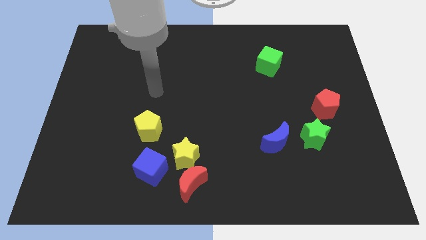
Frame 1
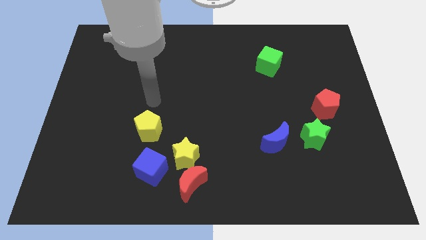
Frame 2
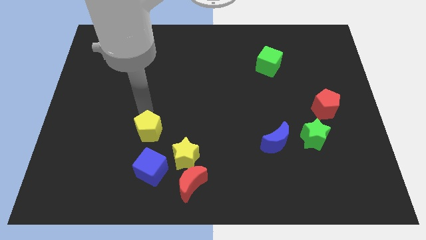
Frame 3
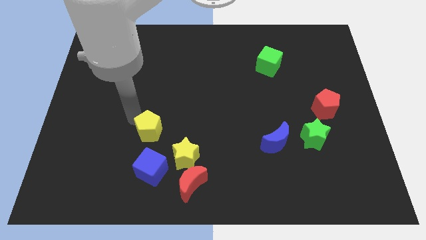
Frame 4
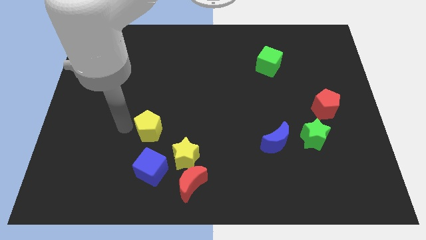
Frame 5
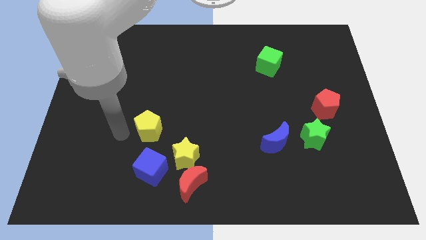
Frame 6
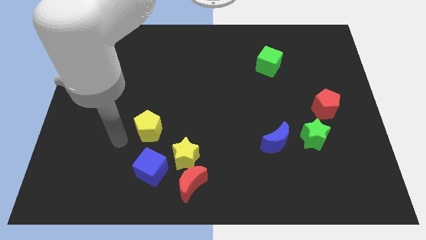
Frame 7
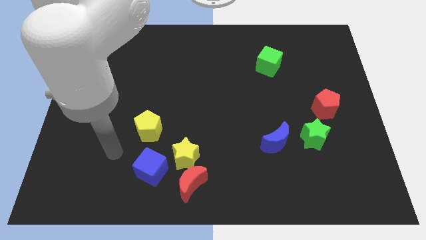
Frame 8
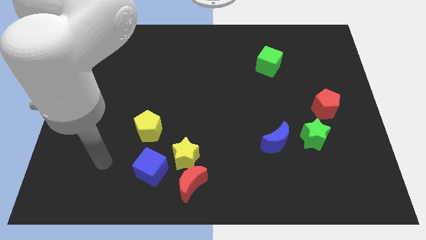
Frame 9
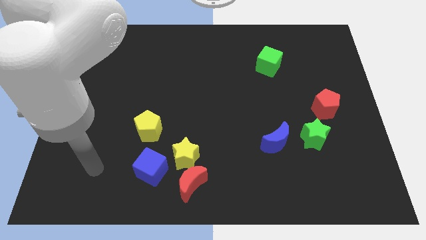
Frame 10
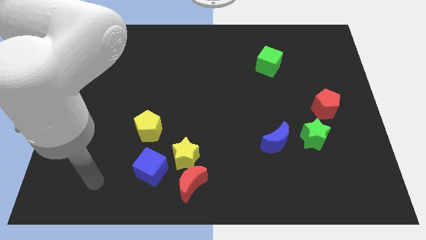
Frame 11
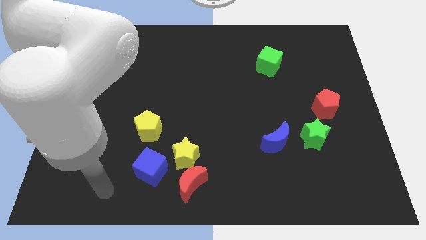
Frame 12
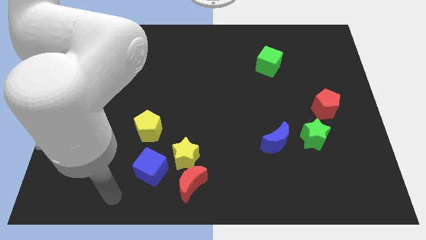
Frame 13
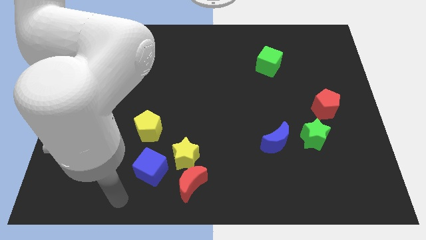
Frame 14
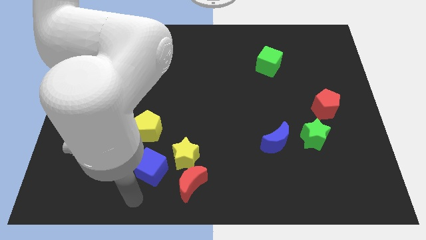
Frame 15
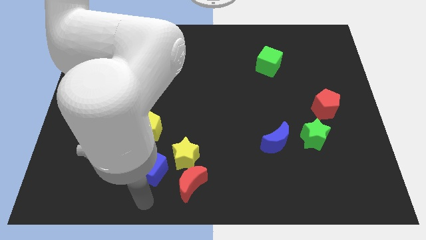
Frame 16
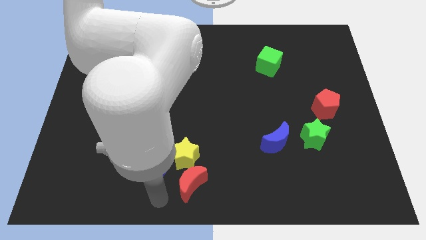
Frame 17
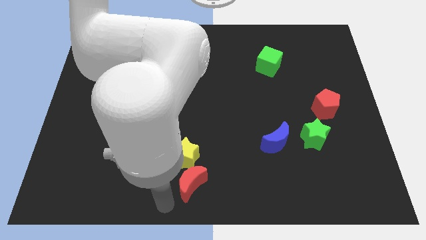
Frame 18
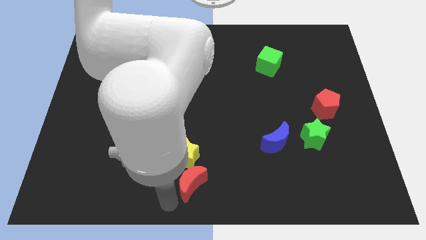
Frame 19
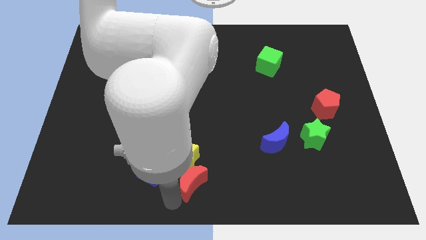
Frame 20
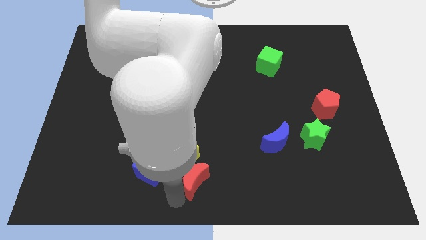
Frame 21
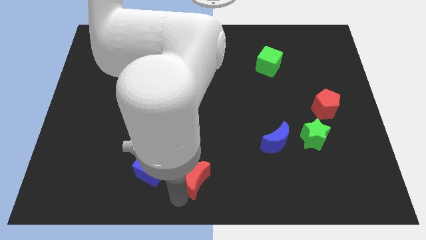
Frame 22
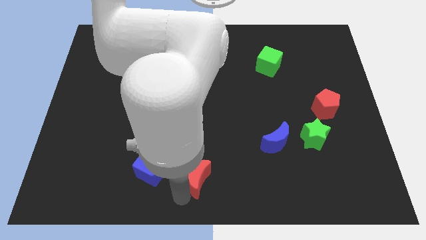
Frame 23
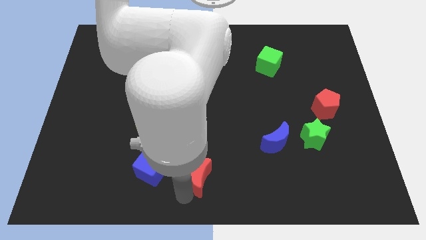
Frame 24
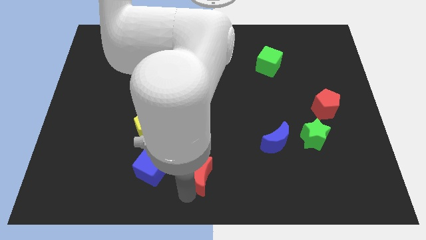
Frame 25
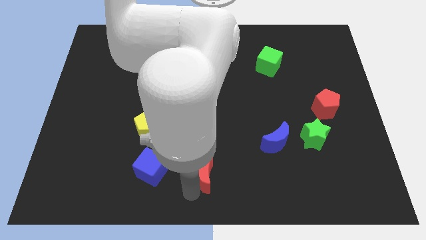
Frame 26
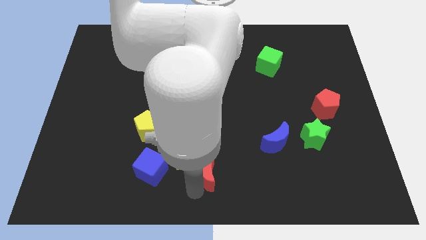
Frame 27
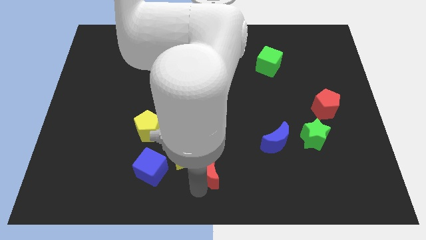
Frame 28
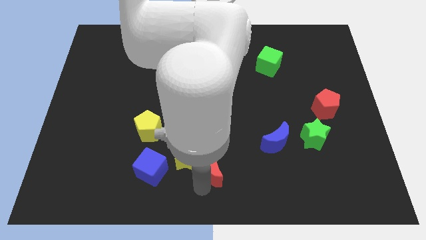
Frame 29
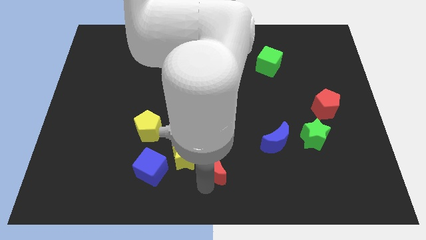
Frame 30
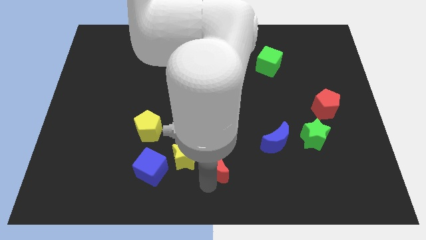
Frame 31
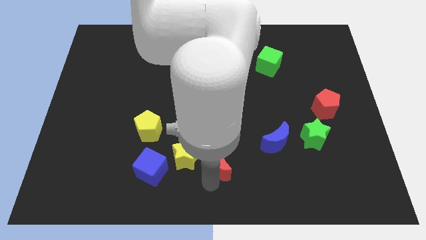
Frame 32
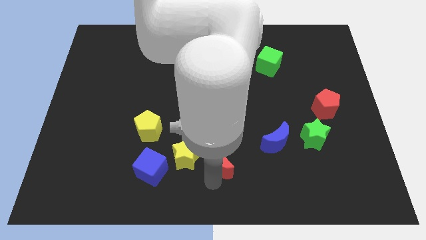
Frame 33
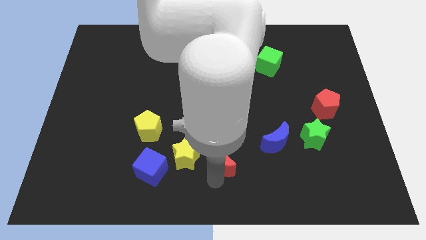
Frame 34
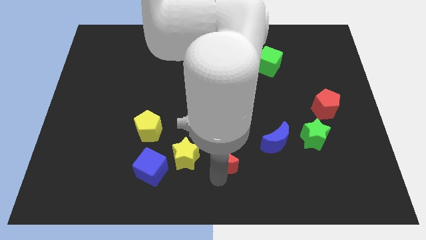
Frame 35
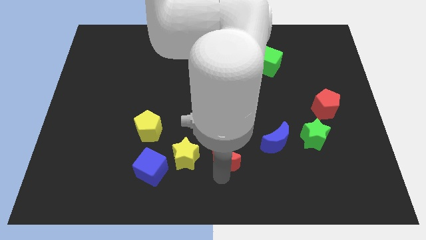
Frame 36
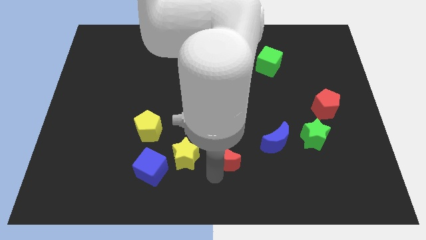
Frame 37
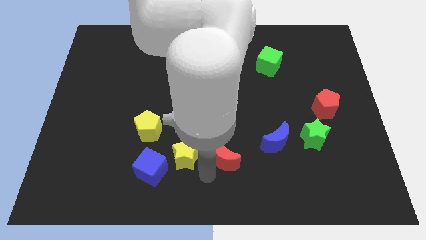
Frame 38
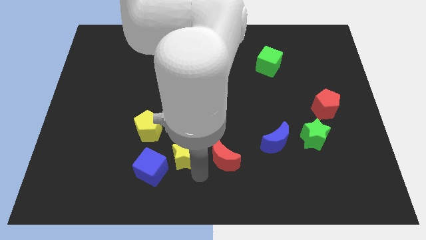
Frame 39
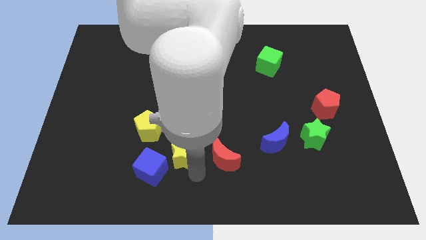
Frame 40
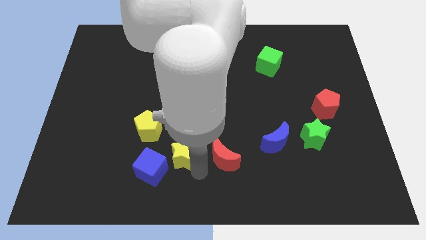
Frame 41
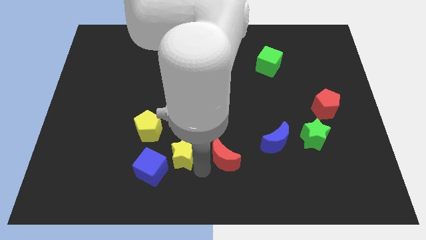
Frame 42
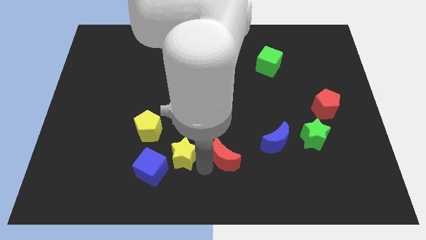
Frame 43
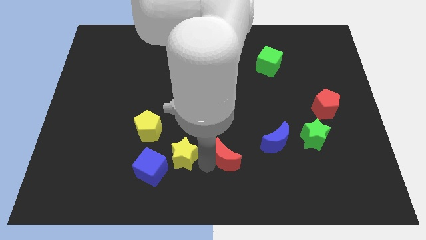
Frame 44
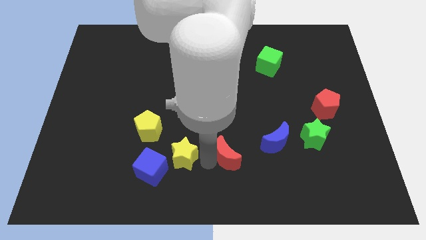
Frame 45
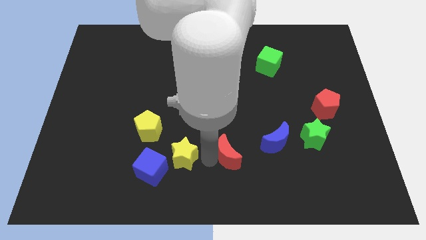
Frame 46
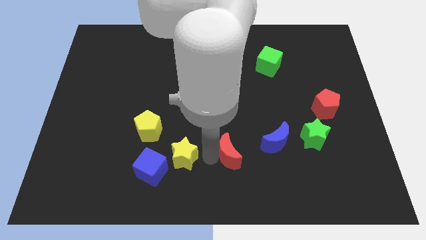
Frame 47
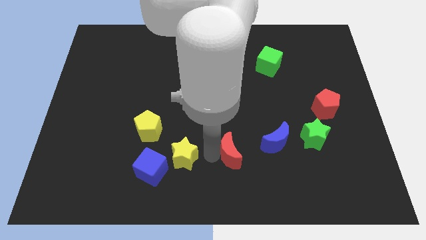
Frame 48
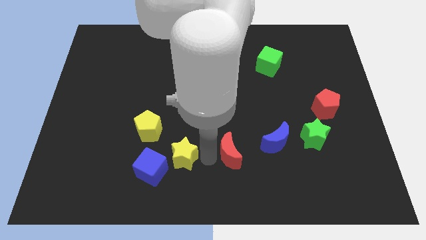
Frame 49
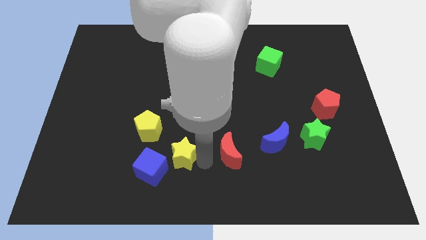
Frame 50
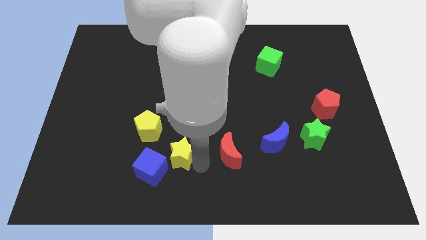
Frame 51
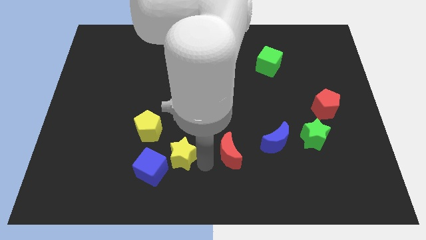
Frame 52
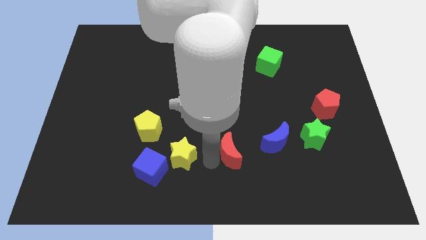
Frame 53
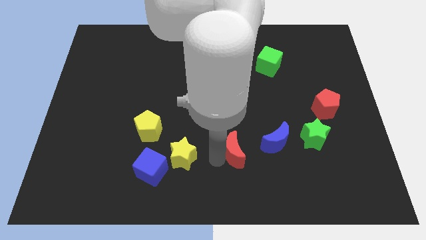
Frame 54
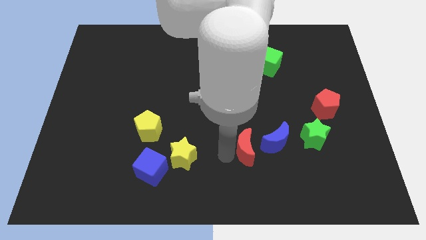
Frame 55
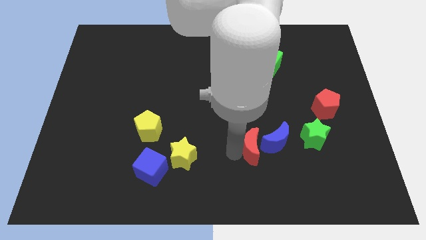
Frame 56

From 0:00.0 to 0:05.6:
move the red moon close to the blue moon

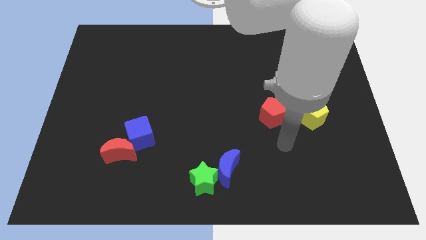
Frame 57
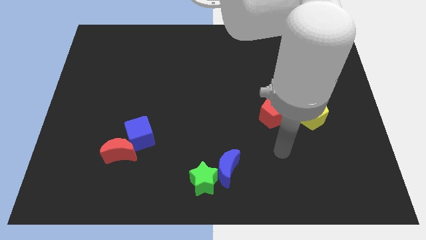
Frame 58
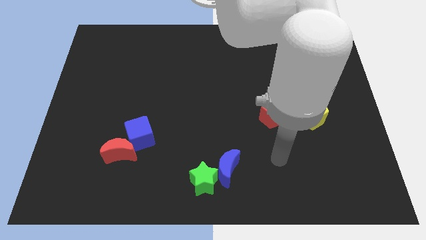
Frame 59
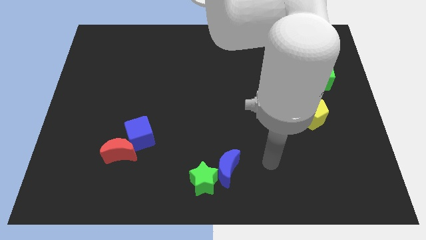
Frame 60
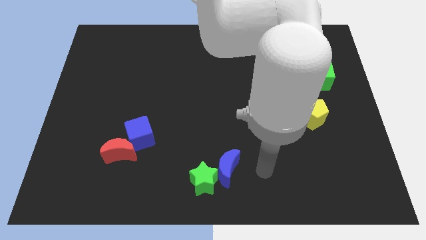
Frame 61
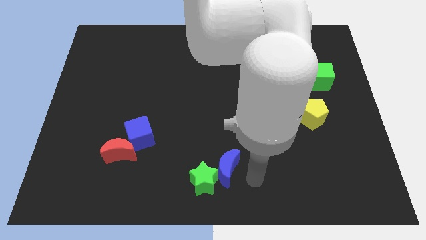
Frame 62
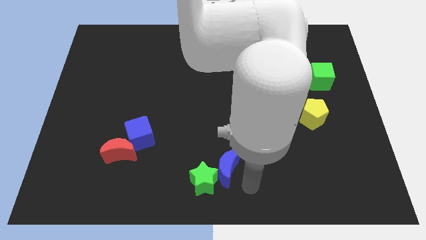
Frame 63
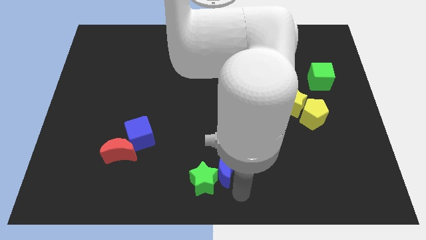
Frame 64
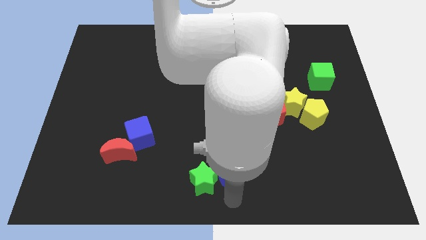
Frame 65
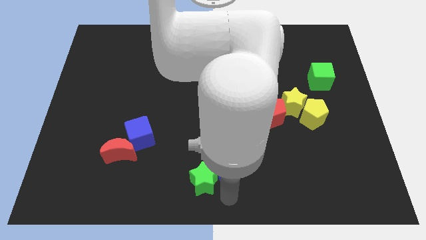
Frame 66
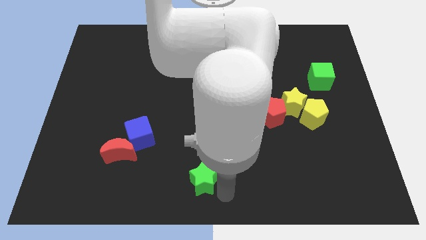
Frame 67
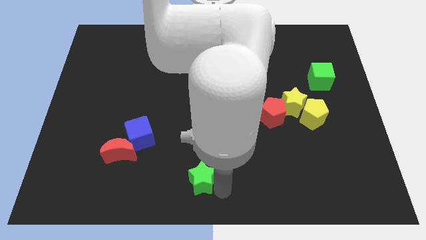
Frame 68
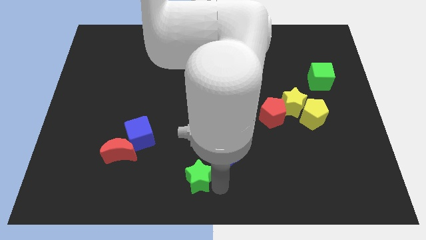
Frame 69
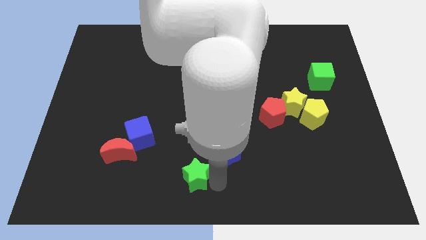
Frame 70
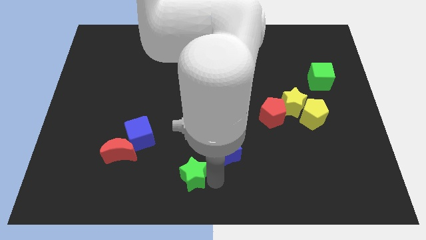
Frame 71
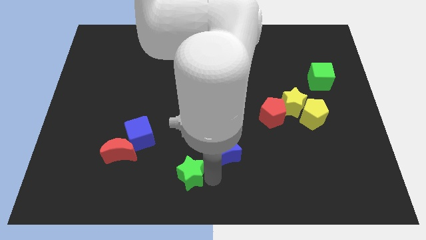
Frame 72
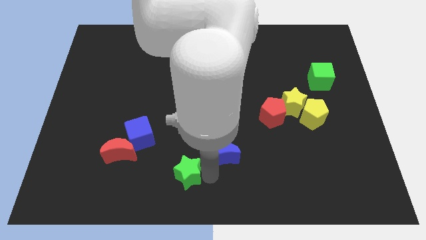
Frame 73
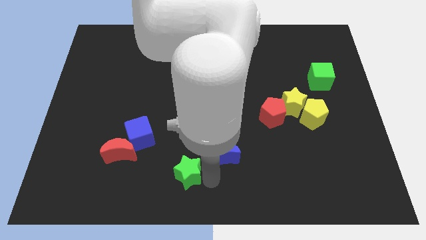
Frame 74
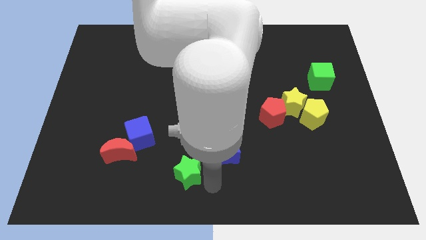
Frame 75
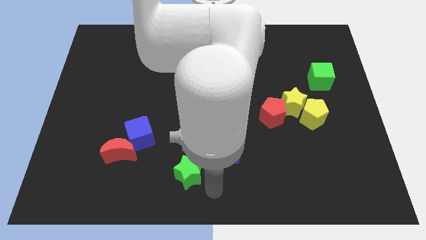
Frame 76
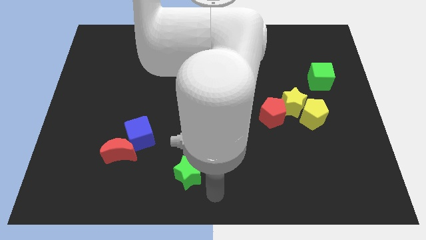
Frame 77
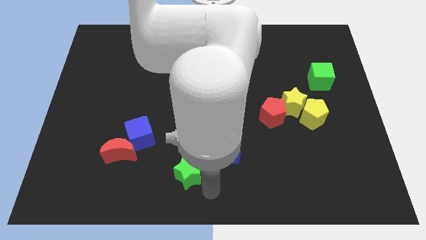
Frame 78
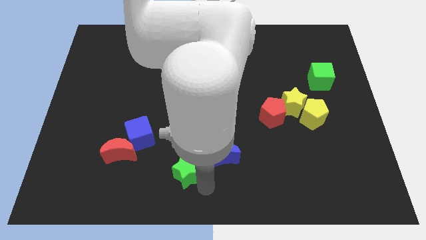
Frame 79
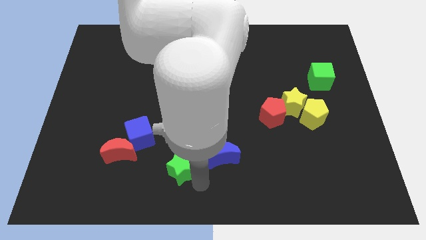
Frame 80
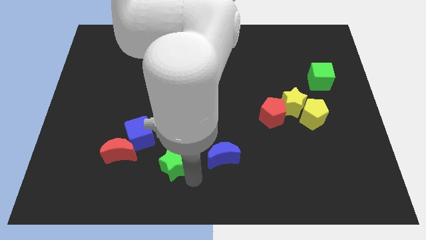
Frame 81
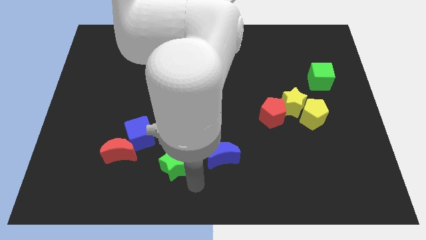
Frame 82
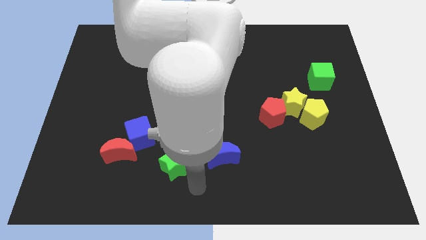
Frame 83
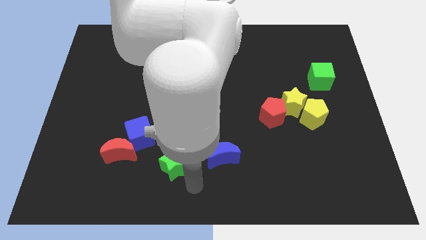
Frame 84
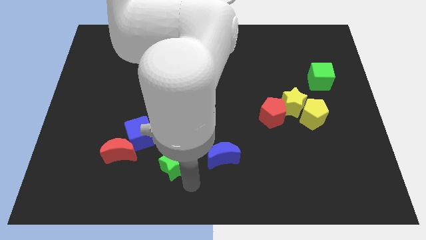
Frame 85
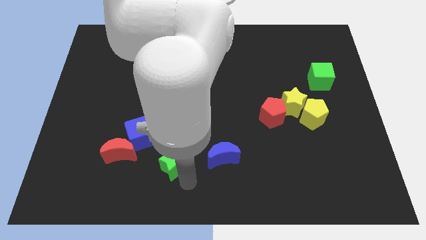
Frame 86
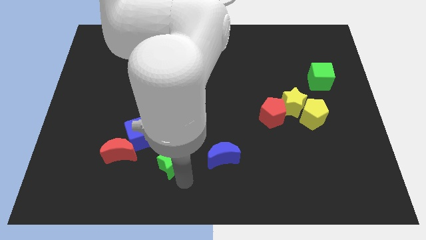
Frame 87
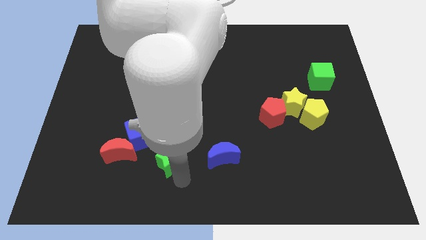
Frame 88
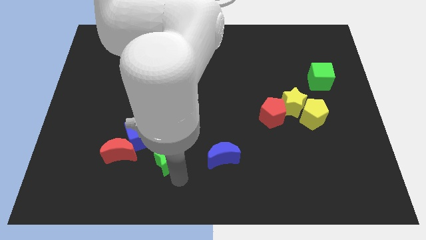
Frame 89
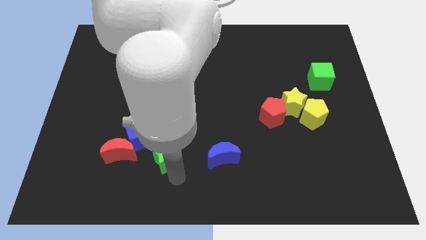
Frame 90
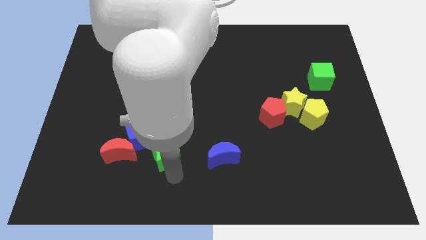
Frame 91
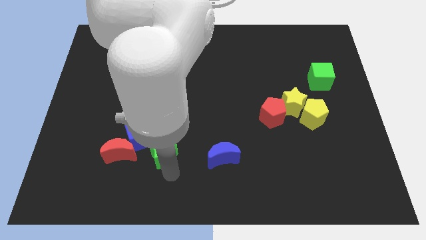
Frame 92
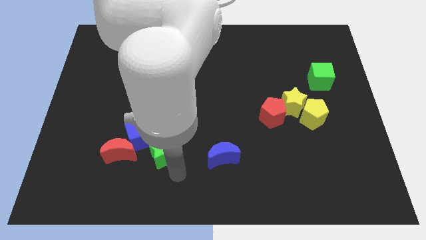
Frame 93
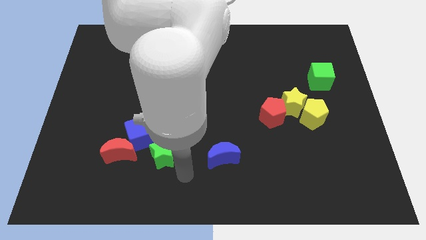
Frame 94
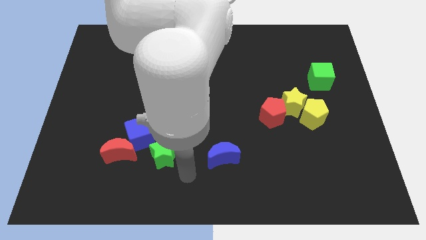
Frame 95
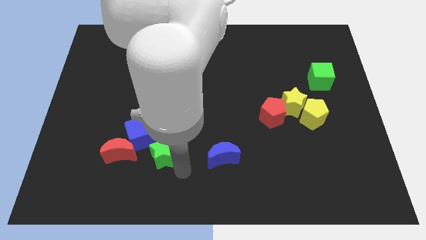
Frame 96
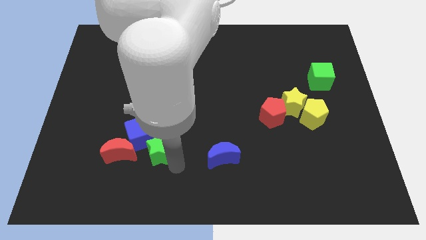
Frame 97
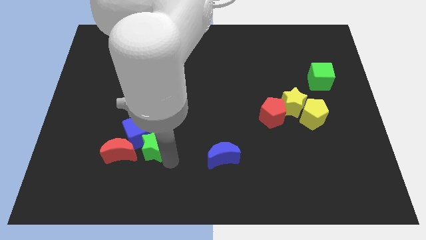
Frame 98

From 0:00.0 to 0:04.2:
put the green star close to the blue cube
